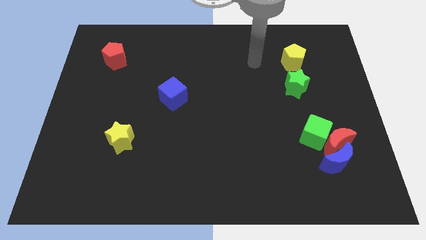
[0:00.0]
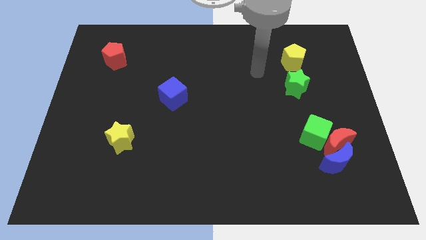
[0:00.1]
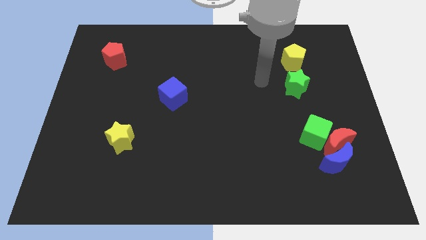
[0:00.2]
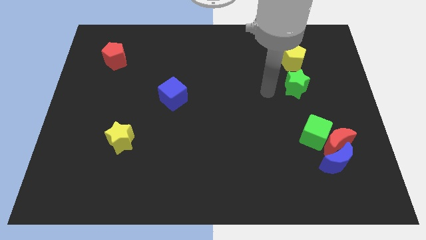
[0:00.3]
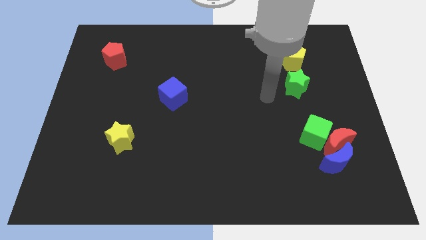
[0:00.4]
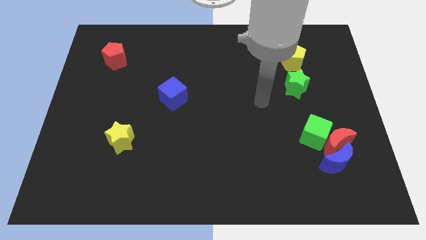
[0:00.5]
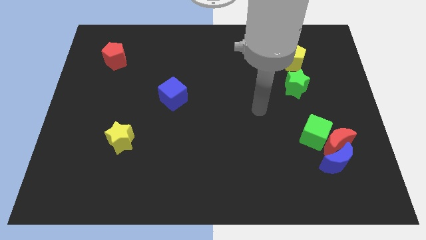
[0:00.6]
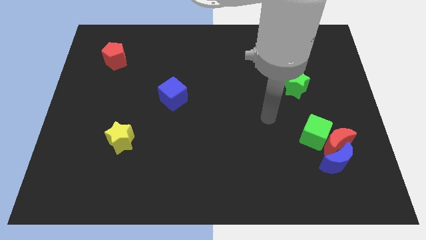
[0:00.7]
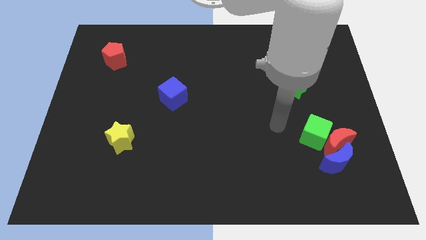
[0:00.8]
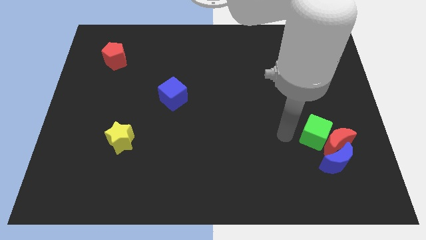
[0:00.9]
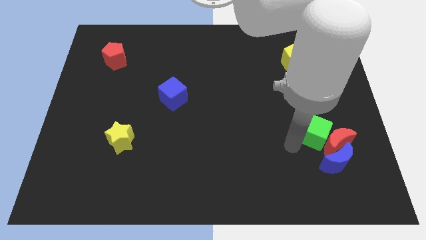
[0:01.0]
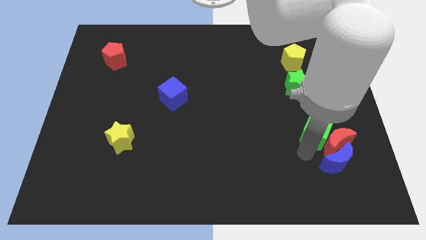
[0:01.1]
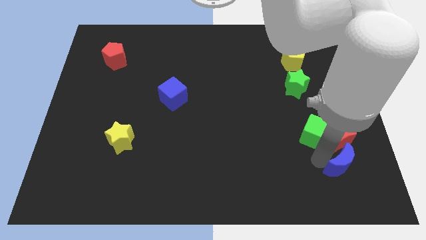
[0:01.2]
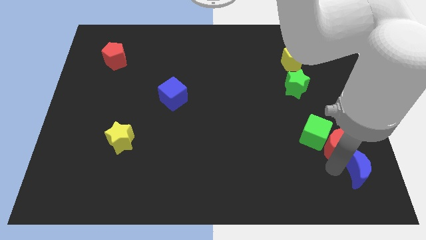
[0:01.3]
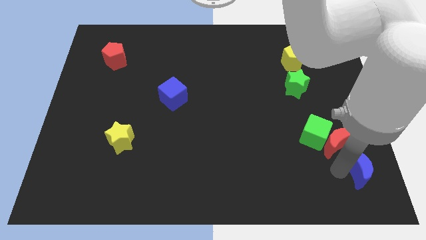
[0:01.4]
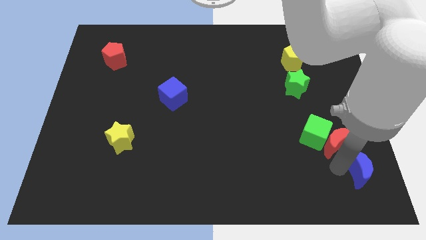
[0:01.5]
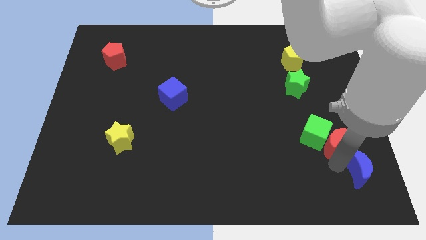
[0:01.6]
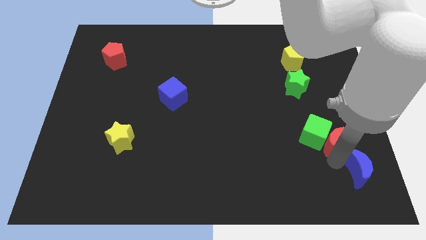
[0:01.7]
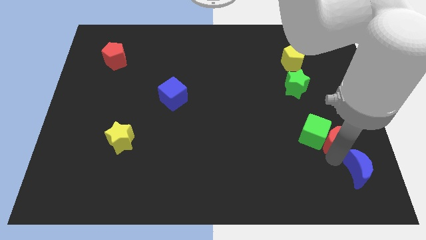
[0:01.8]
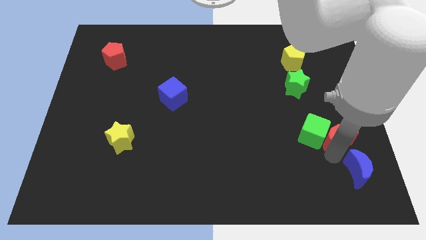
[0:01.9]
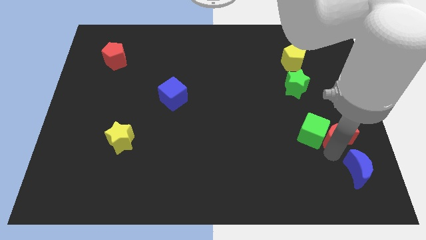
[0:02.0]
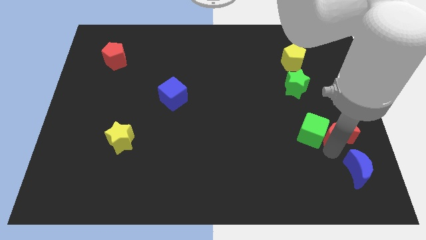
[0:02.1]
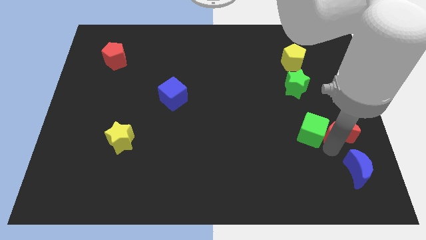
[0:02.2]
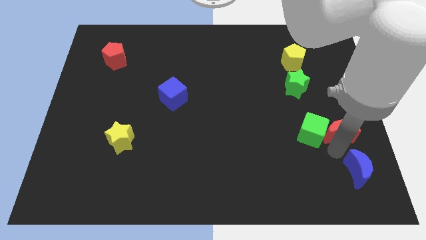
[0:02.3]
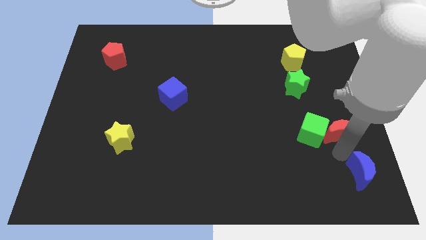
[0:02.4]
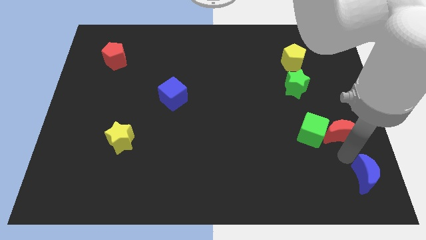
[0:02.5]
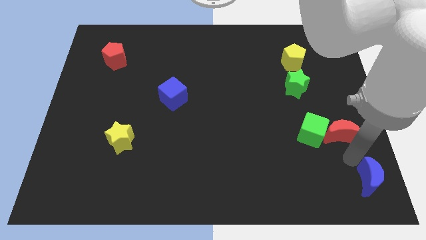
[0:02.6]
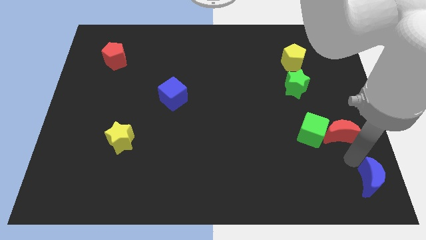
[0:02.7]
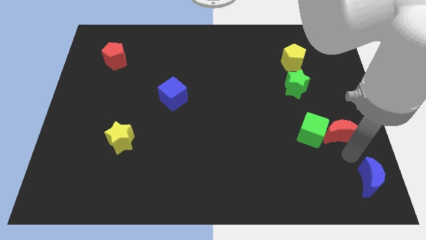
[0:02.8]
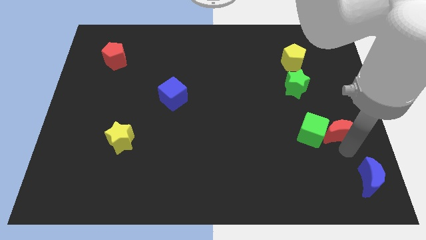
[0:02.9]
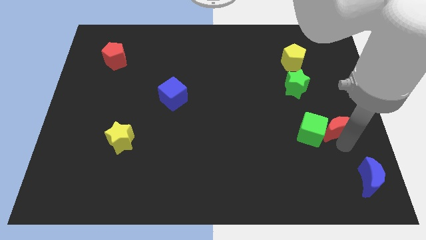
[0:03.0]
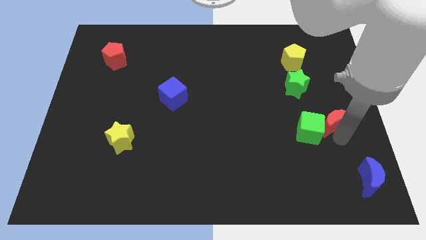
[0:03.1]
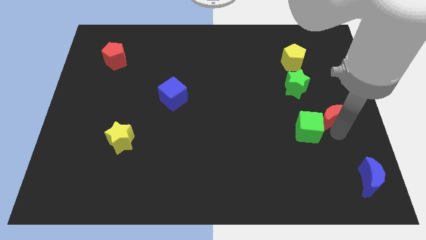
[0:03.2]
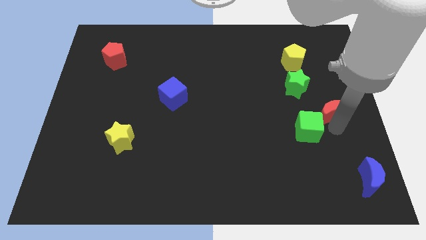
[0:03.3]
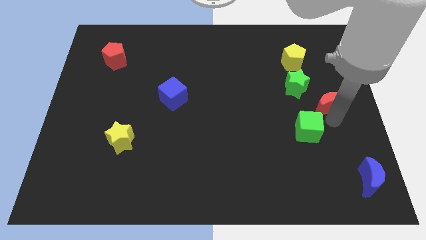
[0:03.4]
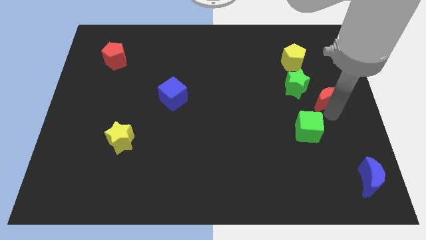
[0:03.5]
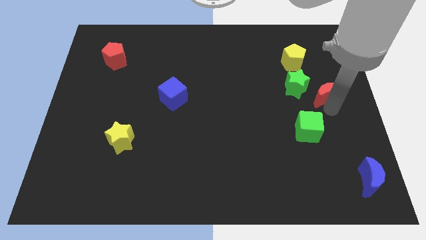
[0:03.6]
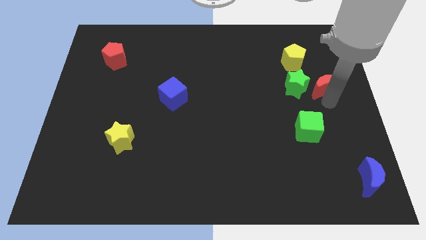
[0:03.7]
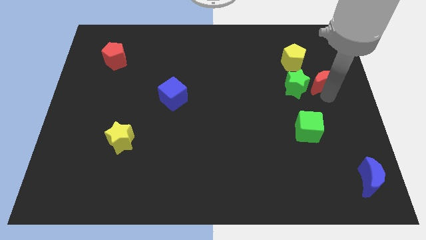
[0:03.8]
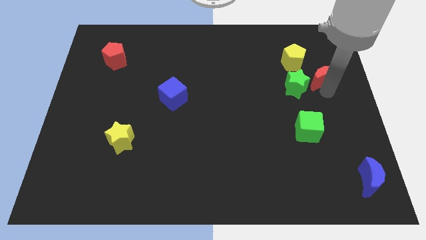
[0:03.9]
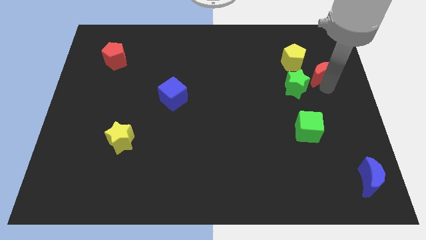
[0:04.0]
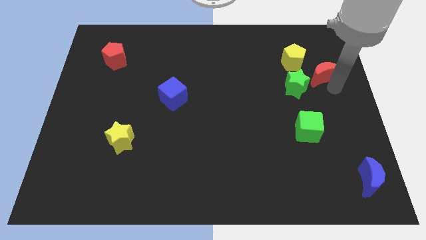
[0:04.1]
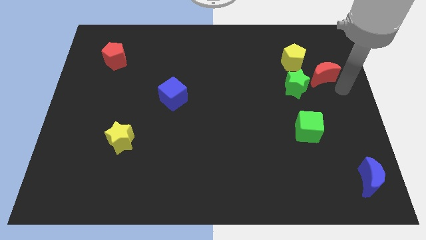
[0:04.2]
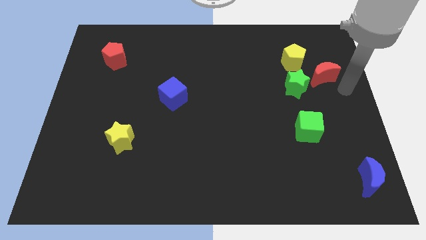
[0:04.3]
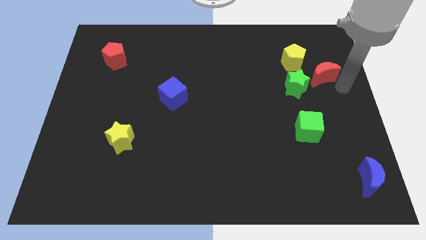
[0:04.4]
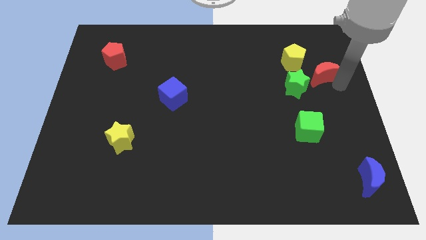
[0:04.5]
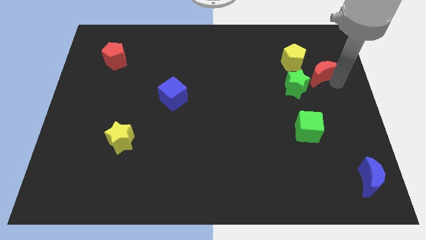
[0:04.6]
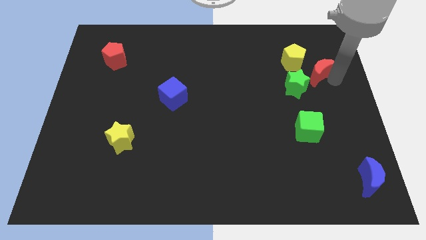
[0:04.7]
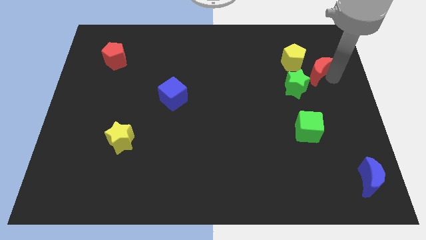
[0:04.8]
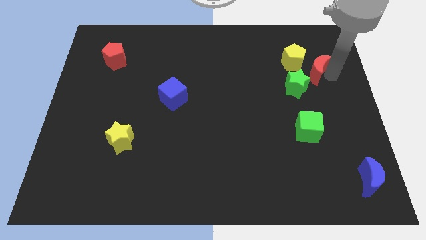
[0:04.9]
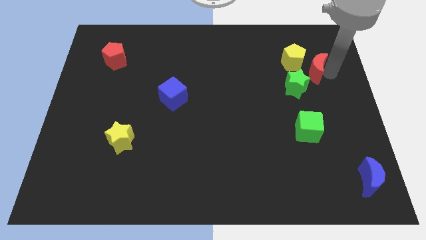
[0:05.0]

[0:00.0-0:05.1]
move the red moon close to the yellow pentagon

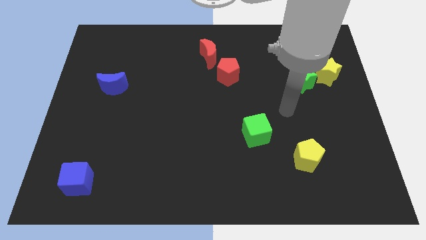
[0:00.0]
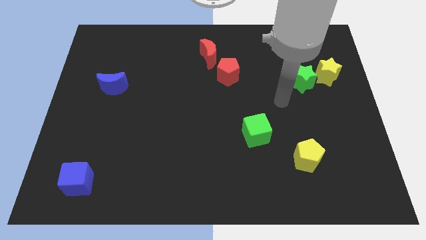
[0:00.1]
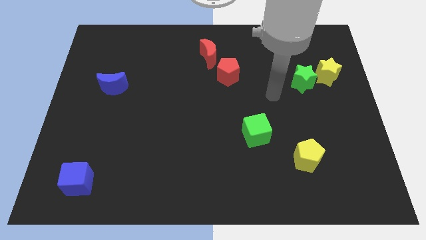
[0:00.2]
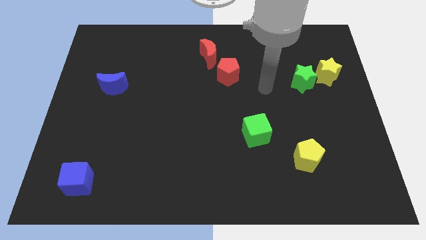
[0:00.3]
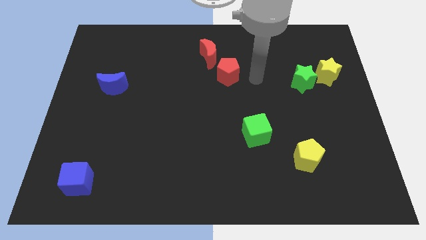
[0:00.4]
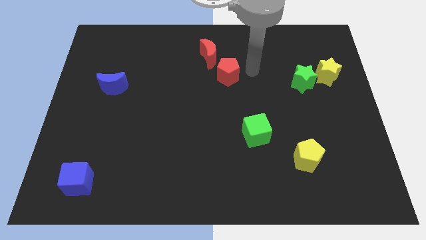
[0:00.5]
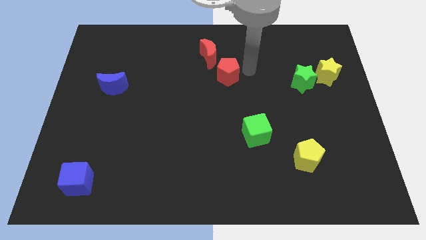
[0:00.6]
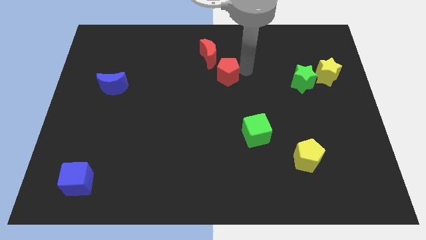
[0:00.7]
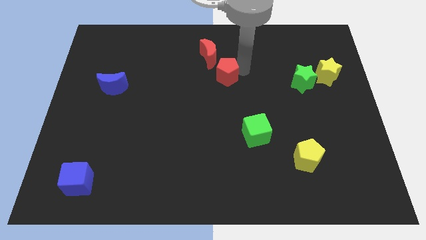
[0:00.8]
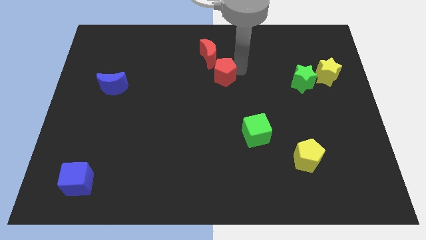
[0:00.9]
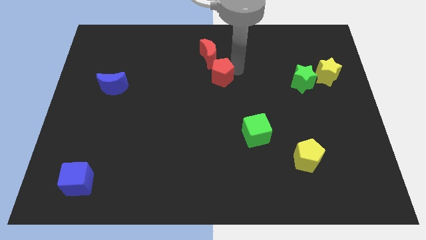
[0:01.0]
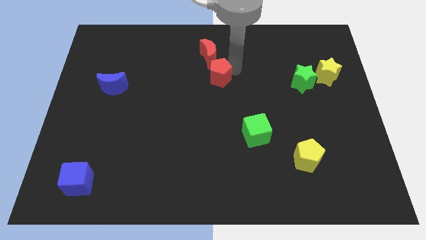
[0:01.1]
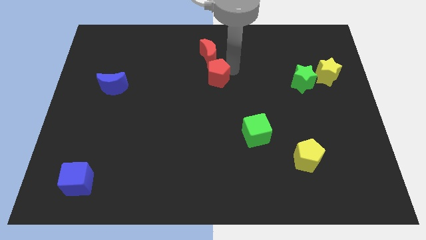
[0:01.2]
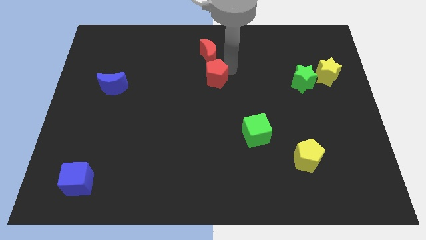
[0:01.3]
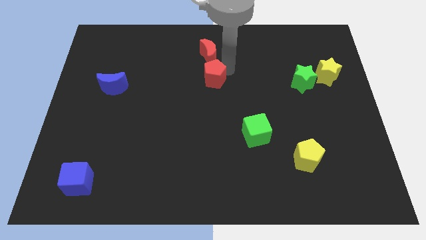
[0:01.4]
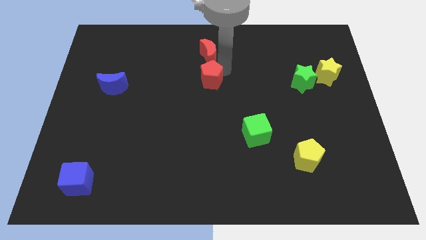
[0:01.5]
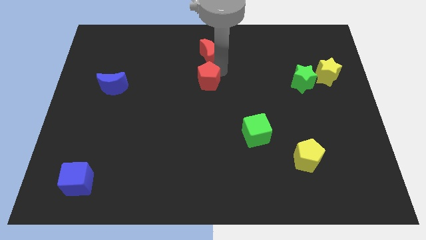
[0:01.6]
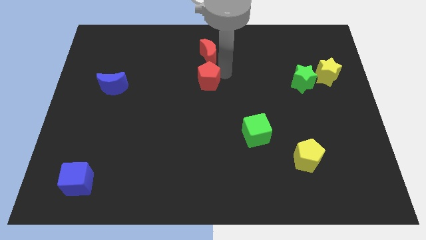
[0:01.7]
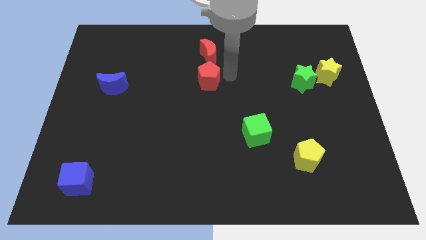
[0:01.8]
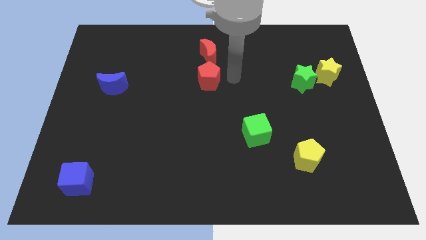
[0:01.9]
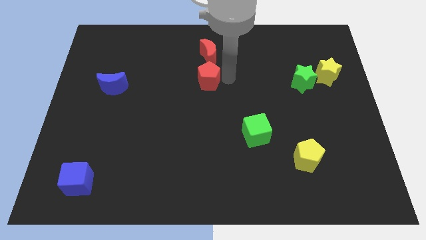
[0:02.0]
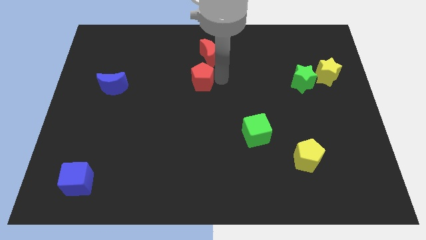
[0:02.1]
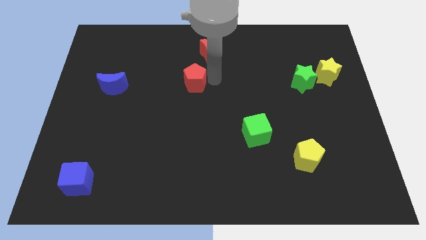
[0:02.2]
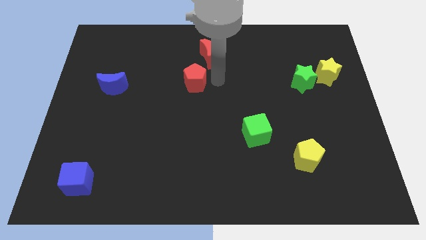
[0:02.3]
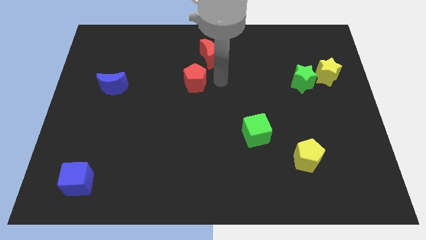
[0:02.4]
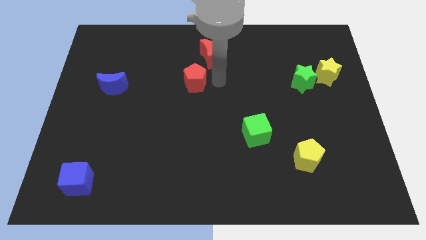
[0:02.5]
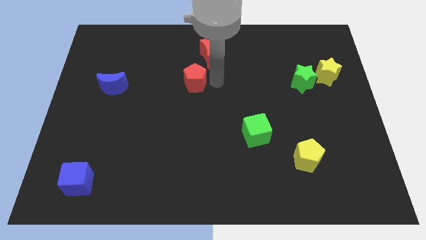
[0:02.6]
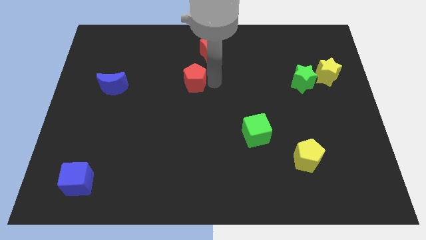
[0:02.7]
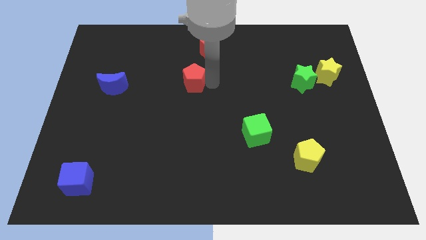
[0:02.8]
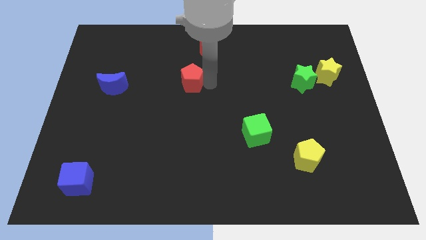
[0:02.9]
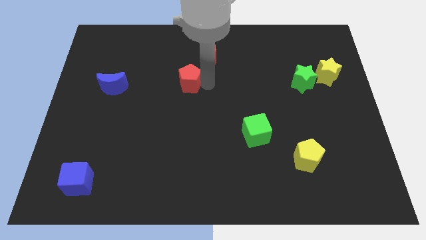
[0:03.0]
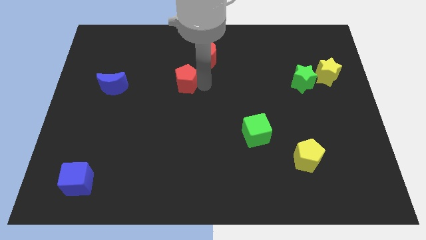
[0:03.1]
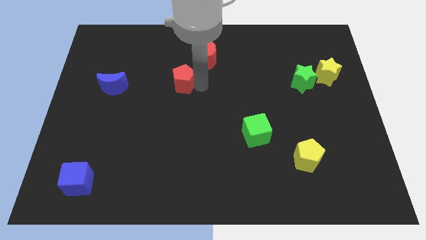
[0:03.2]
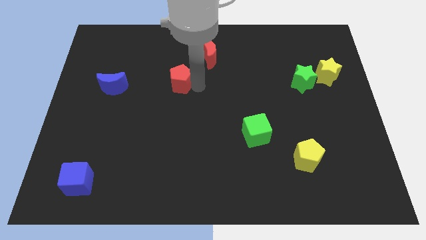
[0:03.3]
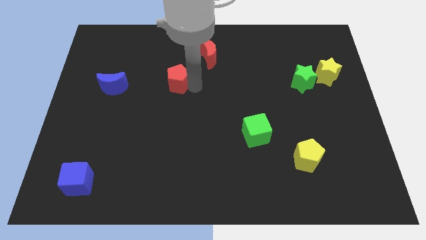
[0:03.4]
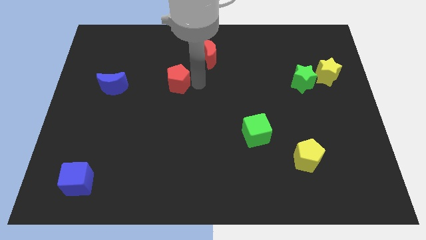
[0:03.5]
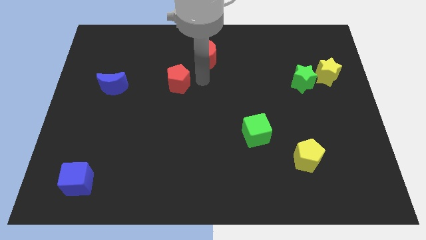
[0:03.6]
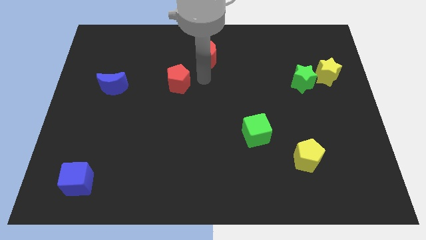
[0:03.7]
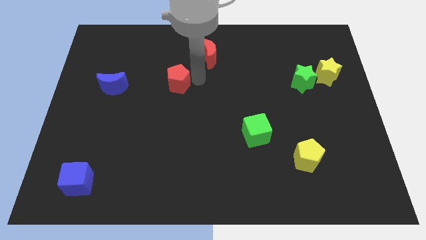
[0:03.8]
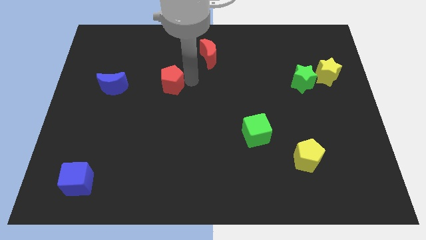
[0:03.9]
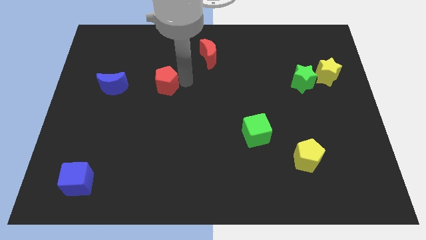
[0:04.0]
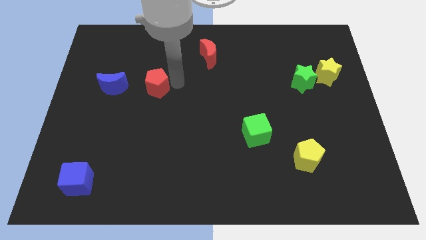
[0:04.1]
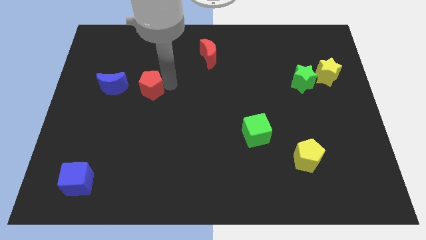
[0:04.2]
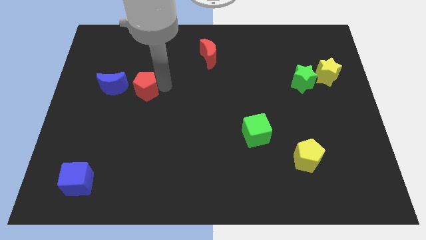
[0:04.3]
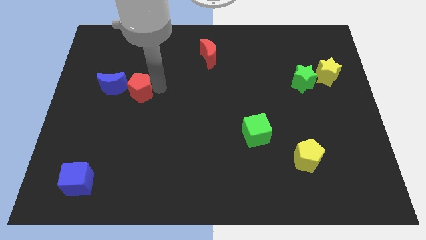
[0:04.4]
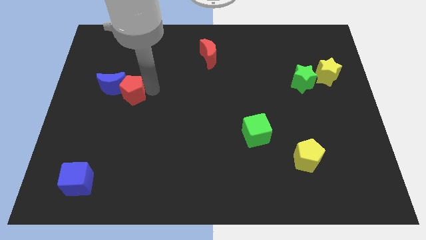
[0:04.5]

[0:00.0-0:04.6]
put the red pentagon close to the blue moon
